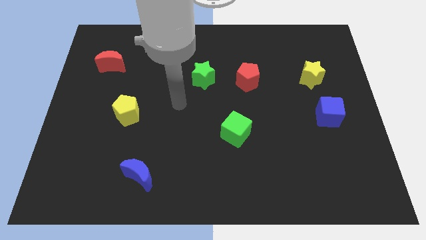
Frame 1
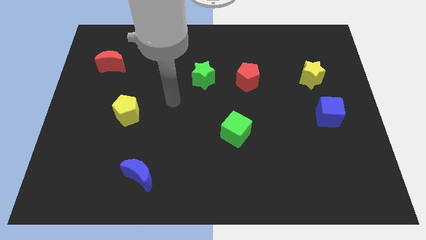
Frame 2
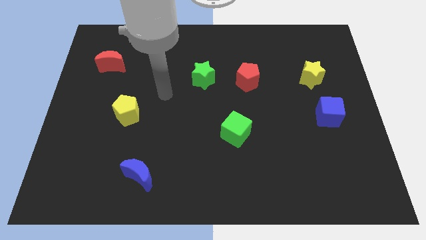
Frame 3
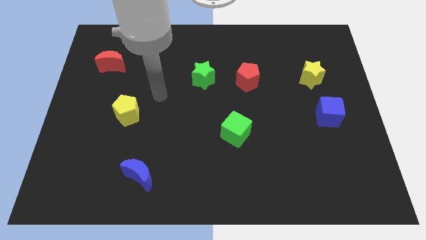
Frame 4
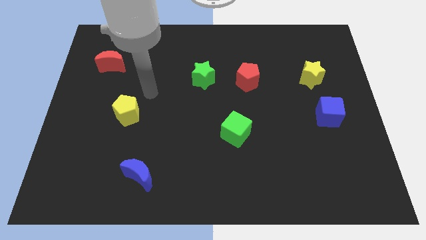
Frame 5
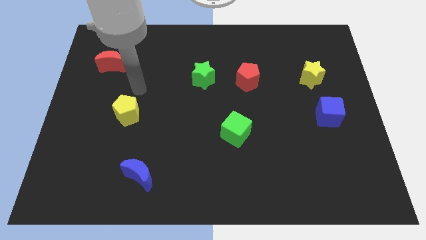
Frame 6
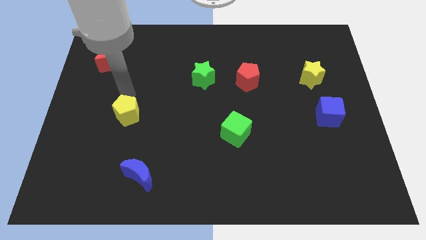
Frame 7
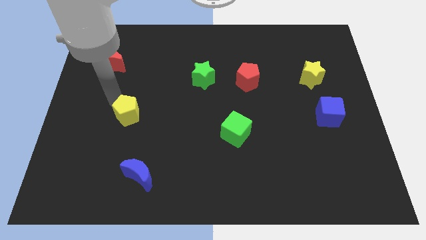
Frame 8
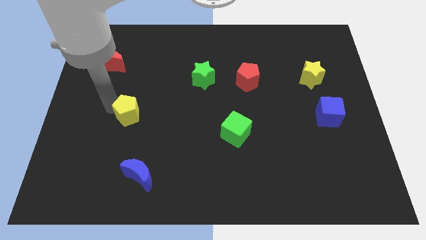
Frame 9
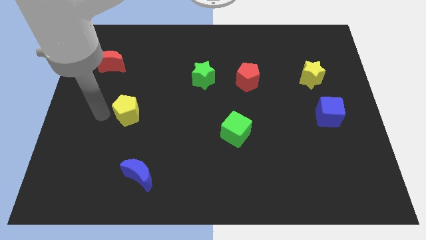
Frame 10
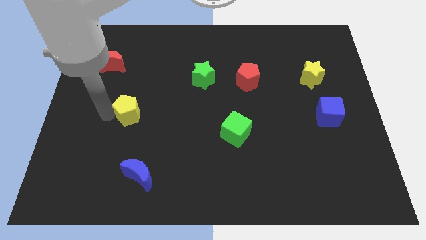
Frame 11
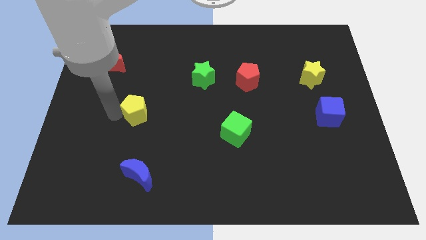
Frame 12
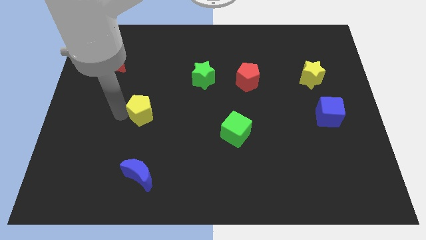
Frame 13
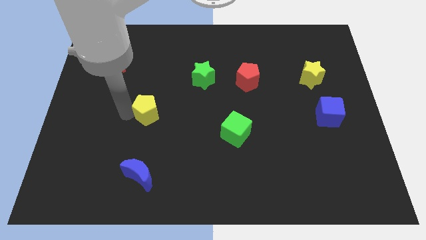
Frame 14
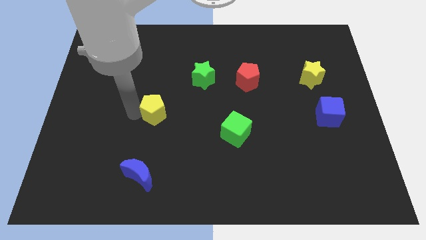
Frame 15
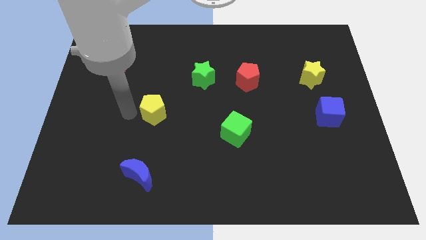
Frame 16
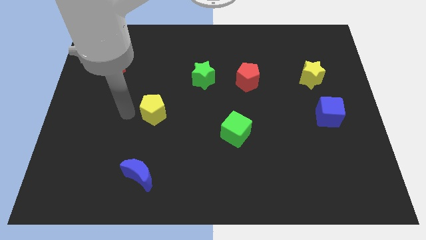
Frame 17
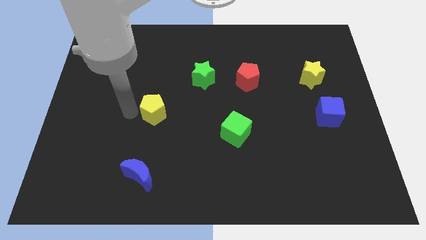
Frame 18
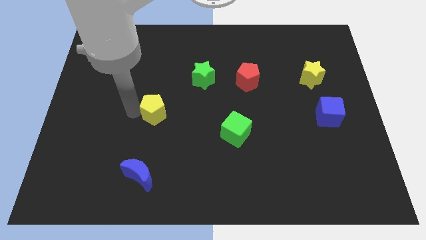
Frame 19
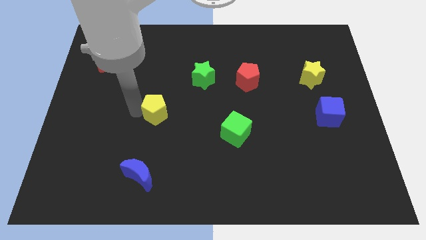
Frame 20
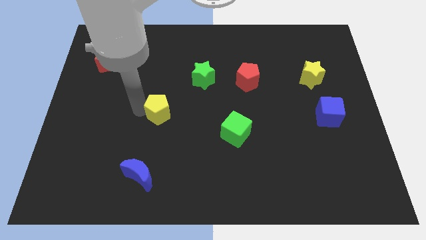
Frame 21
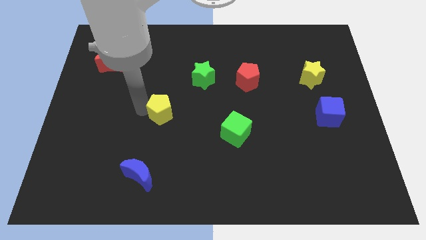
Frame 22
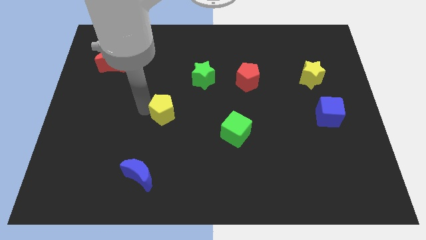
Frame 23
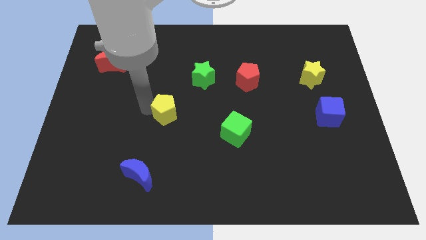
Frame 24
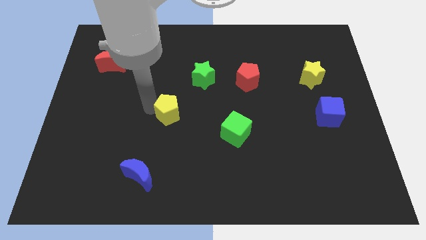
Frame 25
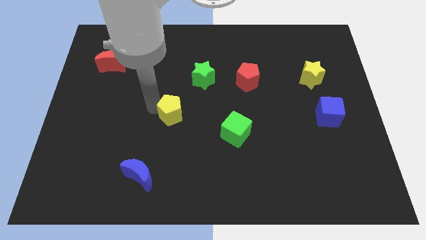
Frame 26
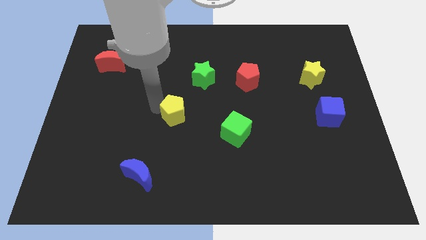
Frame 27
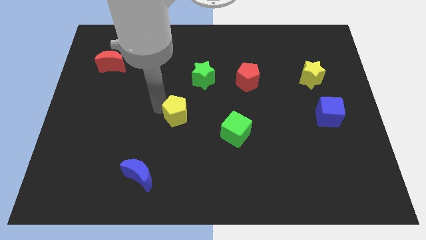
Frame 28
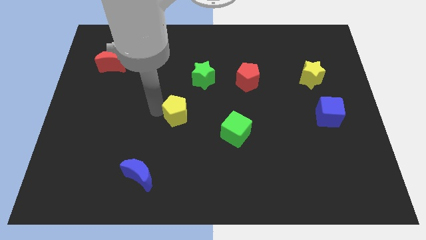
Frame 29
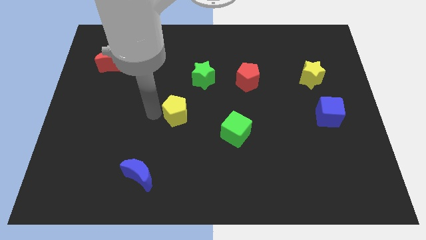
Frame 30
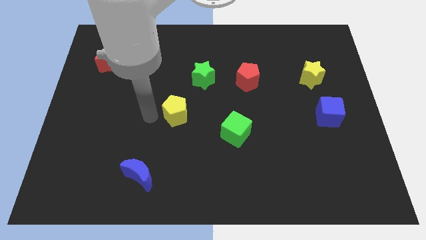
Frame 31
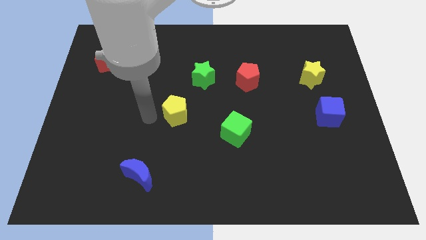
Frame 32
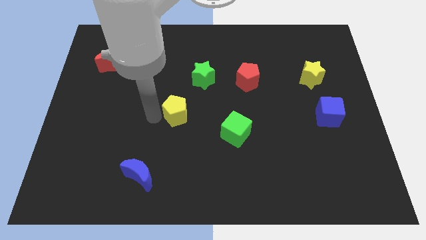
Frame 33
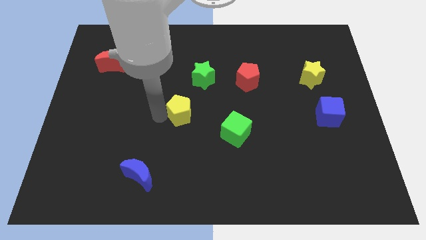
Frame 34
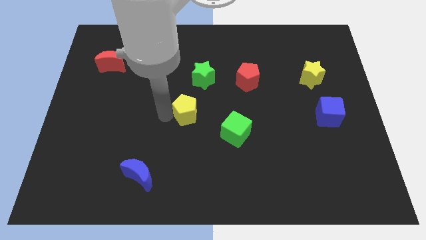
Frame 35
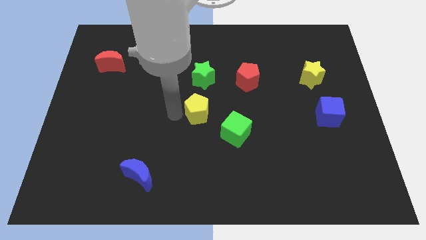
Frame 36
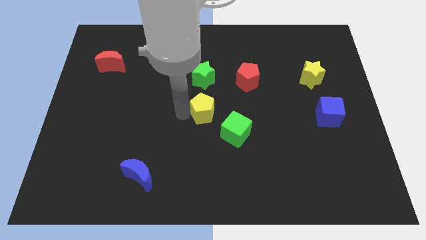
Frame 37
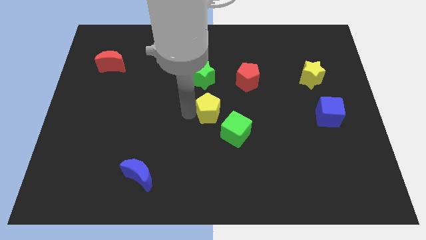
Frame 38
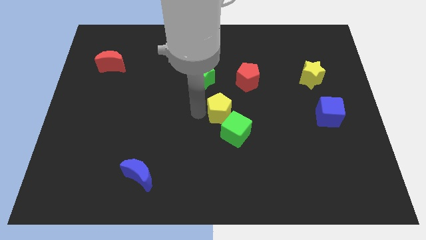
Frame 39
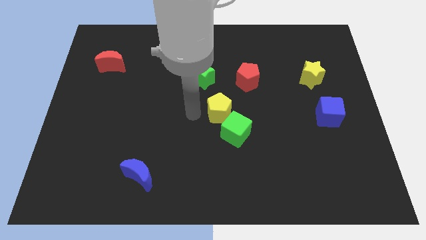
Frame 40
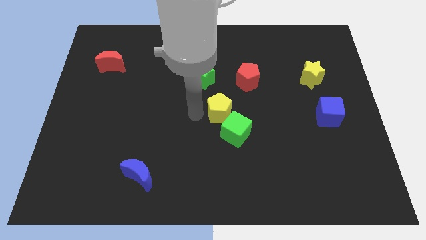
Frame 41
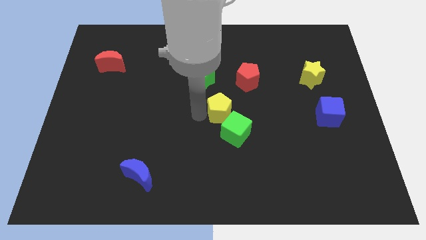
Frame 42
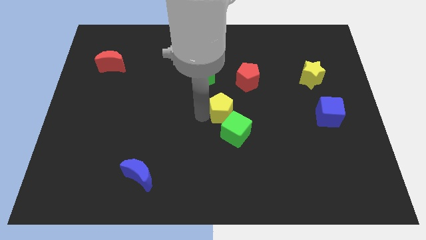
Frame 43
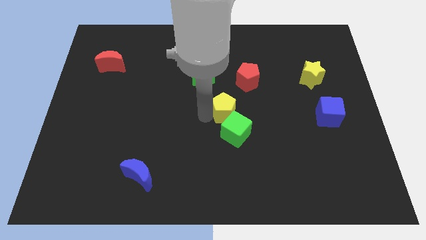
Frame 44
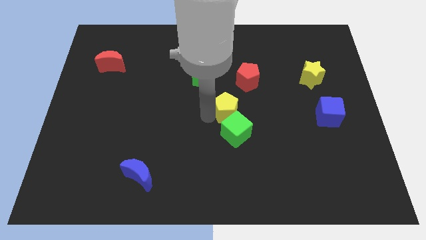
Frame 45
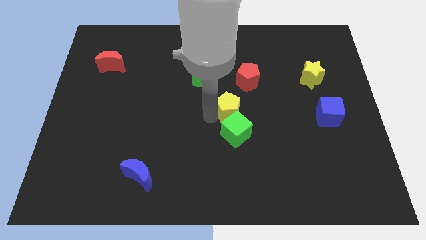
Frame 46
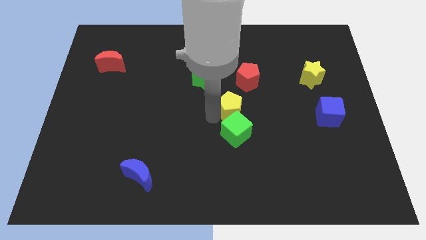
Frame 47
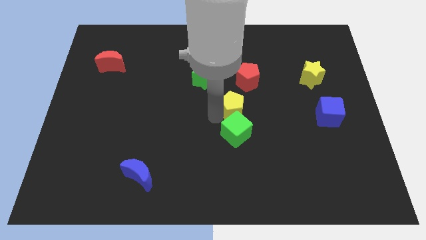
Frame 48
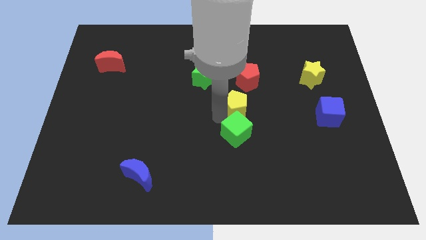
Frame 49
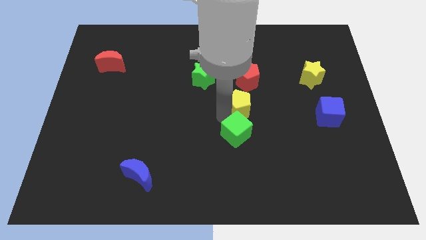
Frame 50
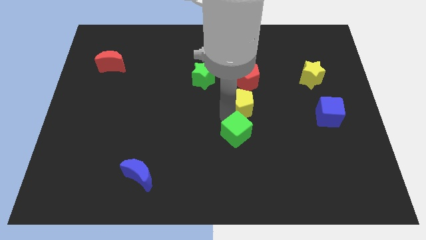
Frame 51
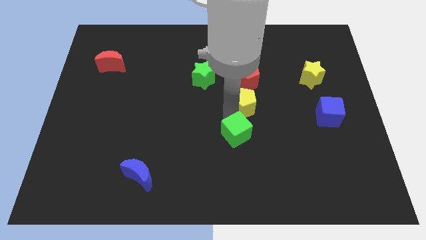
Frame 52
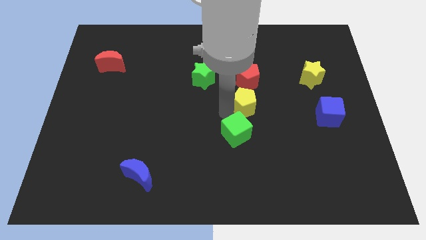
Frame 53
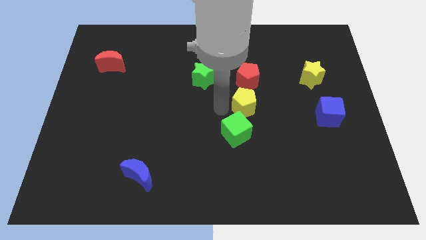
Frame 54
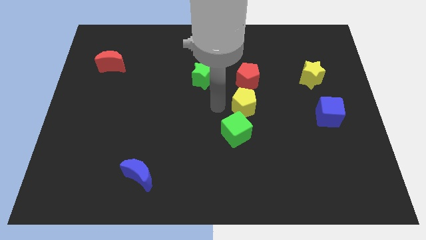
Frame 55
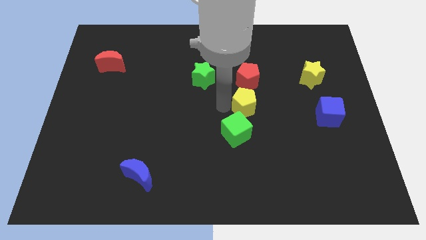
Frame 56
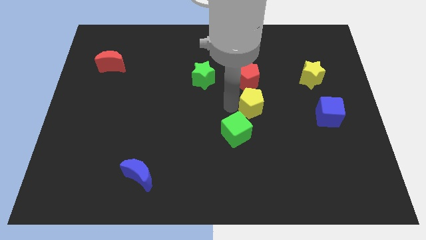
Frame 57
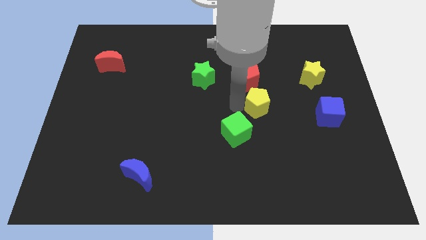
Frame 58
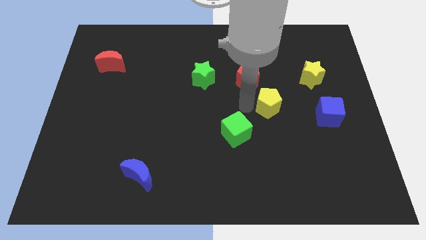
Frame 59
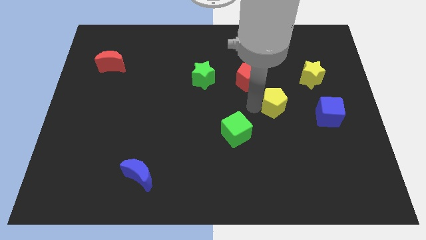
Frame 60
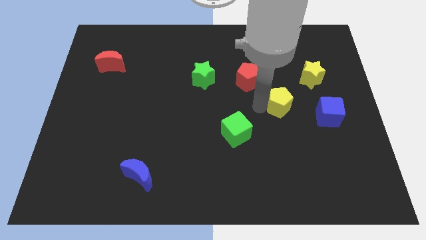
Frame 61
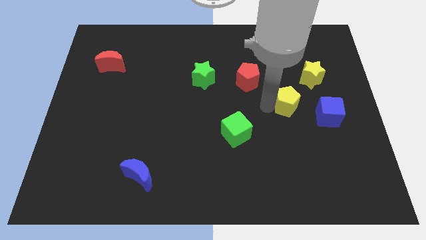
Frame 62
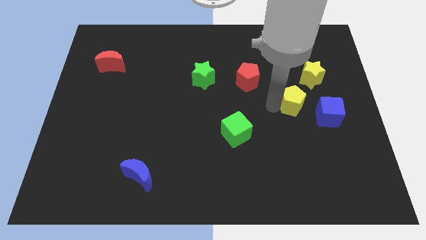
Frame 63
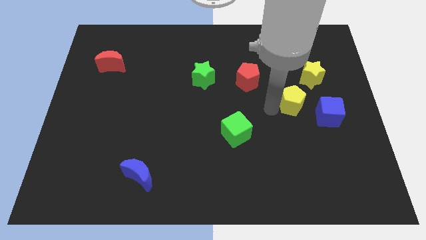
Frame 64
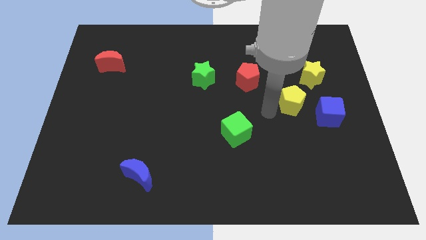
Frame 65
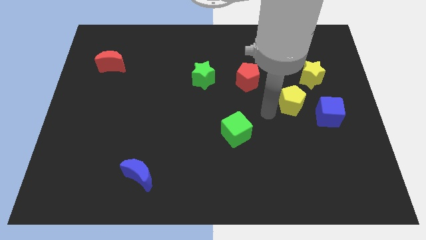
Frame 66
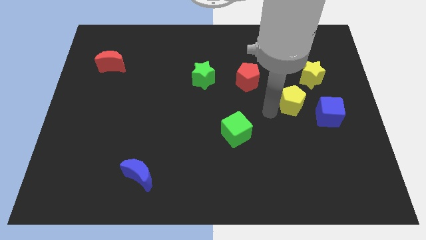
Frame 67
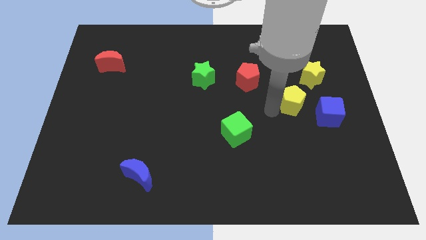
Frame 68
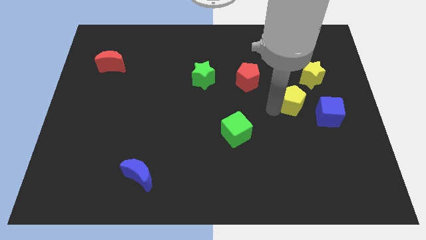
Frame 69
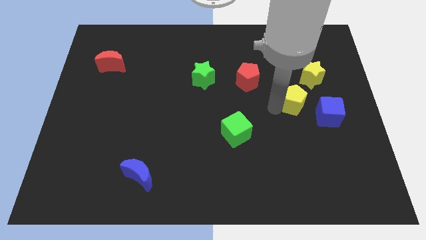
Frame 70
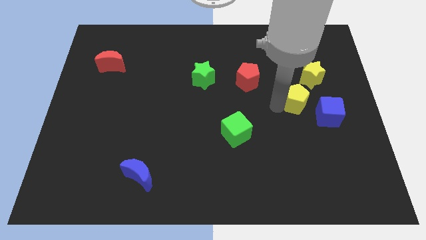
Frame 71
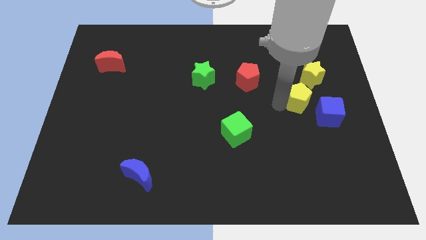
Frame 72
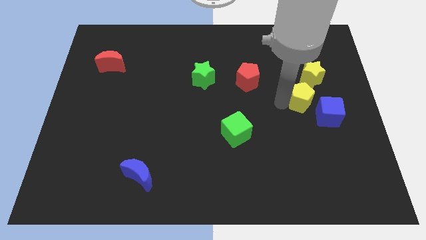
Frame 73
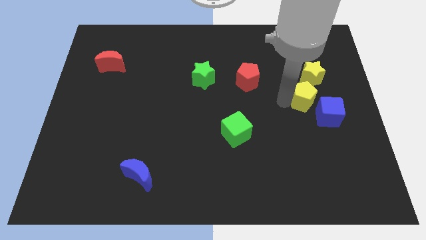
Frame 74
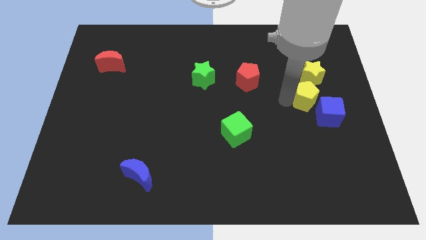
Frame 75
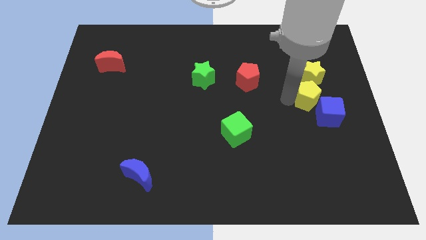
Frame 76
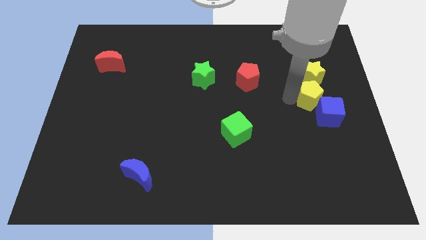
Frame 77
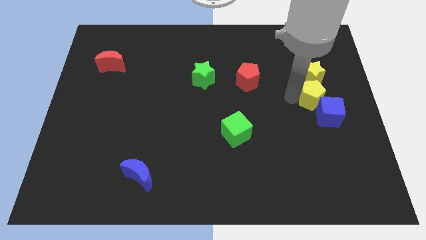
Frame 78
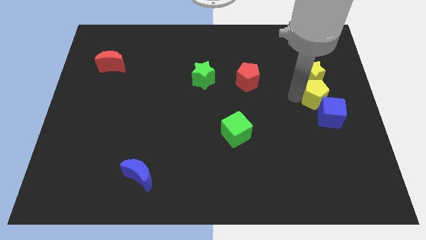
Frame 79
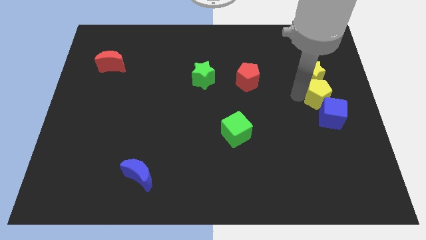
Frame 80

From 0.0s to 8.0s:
slide the yellow pentagon to the right side of the board
